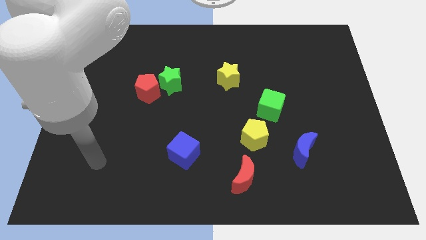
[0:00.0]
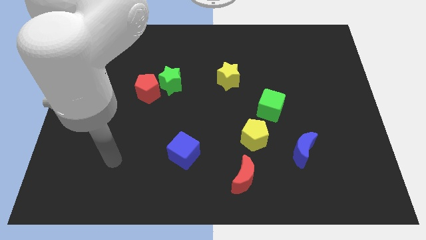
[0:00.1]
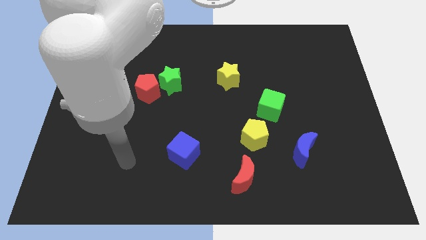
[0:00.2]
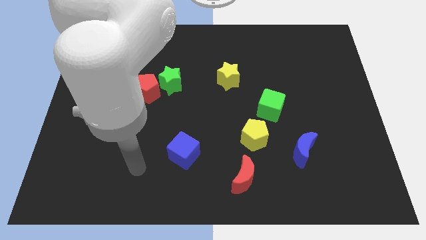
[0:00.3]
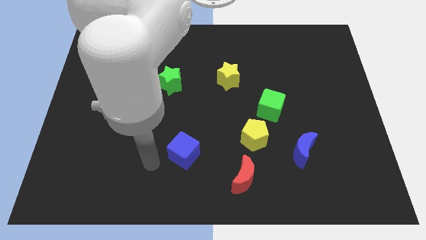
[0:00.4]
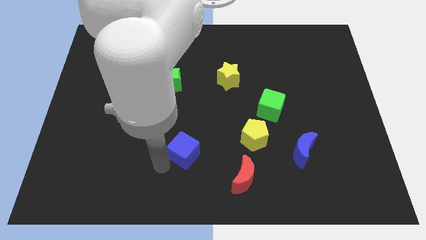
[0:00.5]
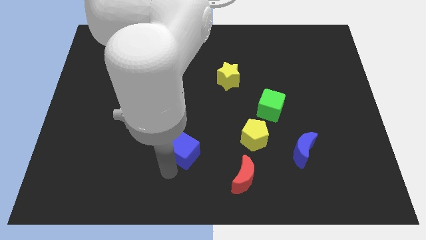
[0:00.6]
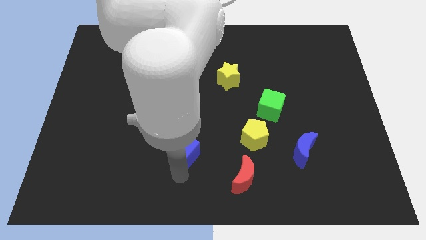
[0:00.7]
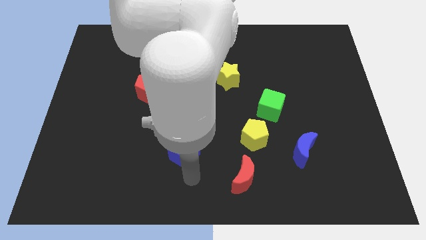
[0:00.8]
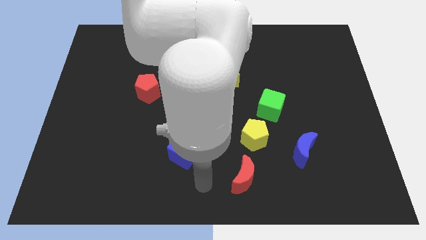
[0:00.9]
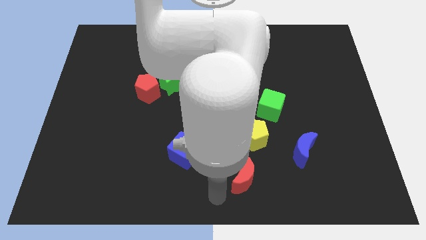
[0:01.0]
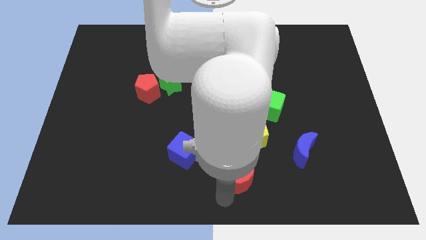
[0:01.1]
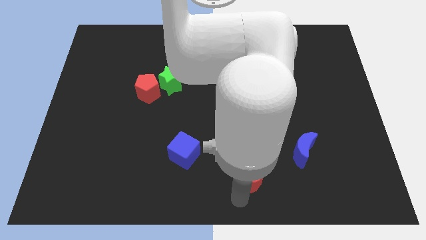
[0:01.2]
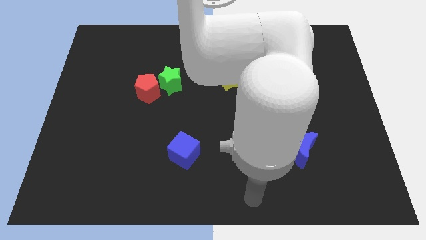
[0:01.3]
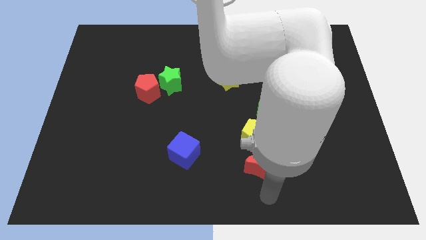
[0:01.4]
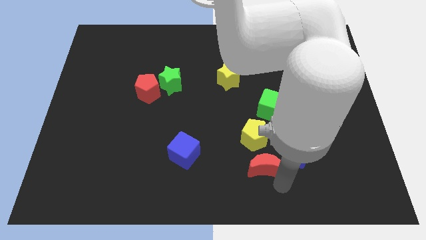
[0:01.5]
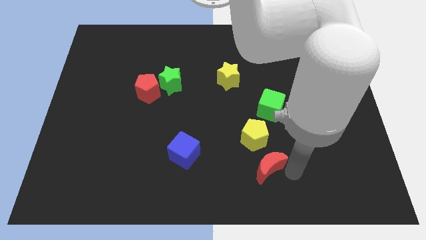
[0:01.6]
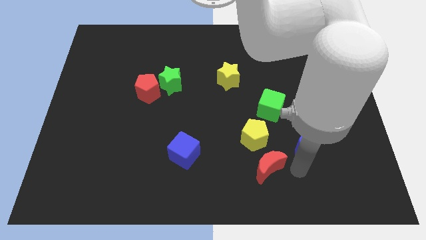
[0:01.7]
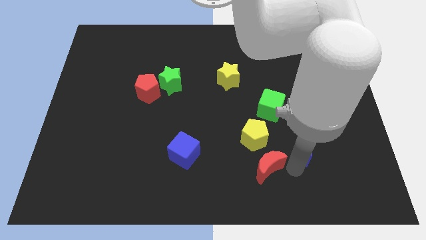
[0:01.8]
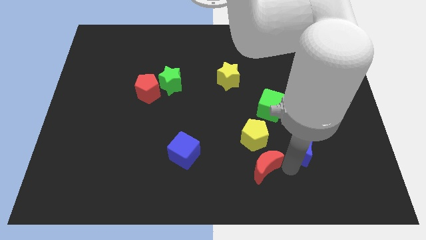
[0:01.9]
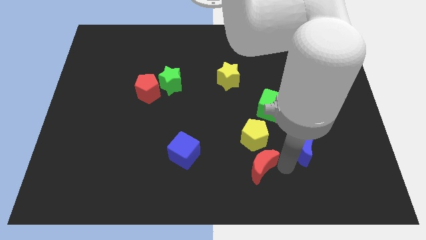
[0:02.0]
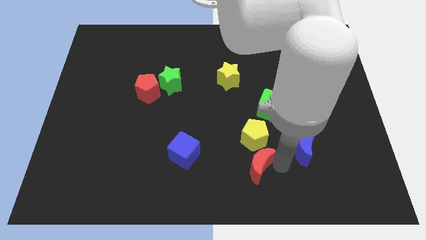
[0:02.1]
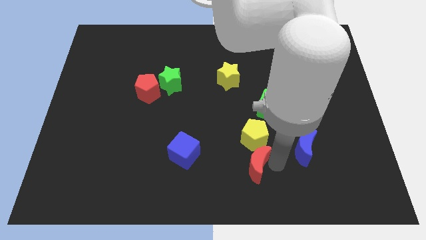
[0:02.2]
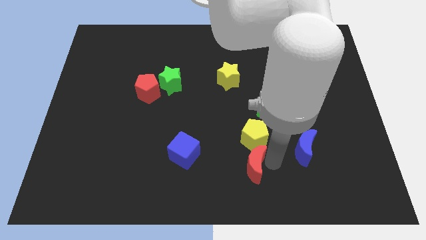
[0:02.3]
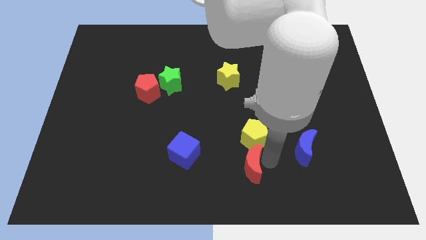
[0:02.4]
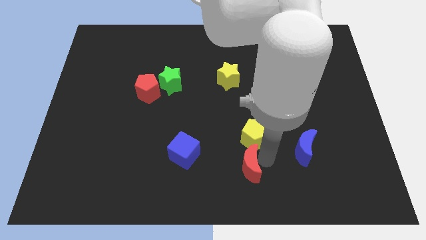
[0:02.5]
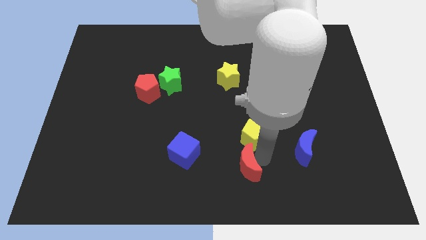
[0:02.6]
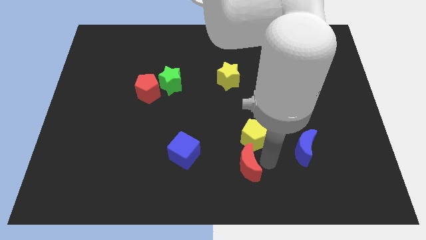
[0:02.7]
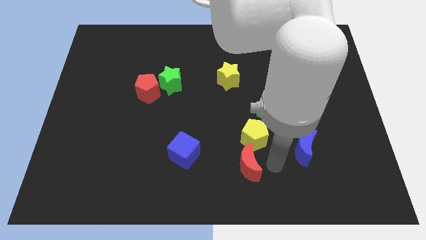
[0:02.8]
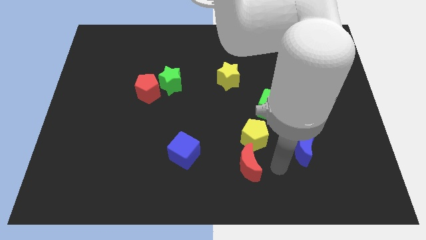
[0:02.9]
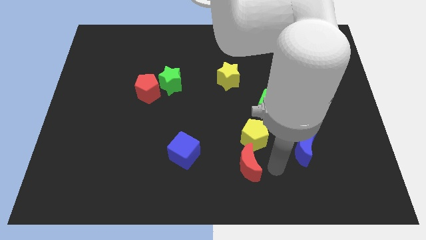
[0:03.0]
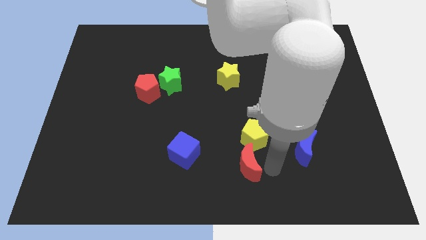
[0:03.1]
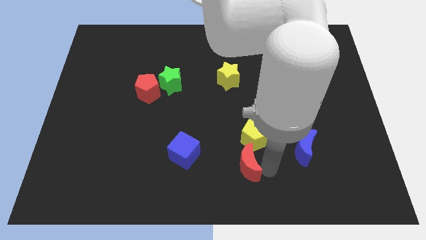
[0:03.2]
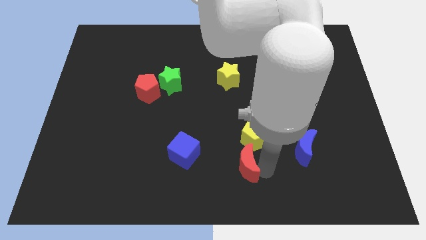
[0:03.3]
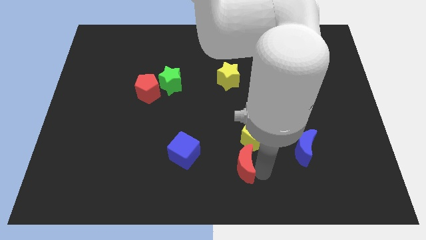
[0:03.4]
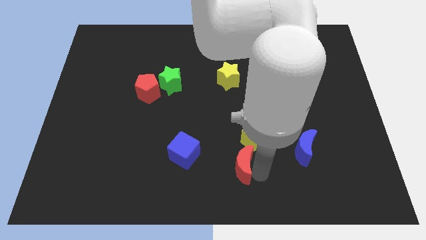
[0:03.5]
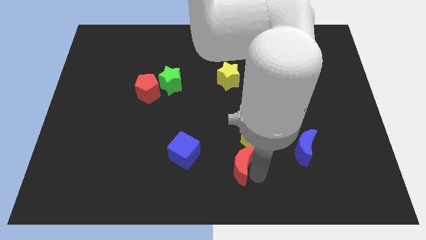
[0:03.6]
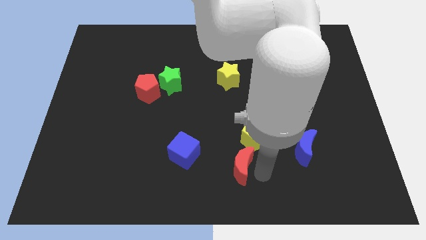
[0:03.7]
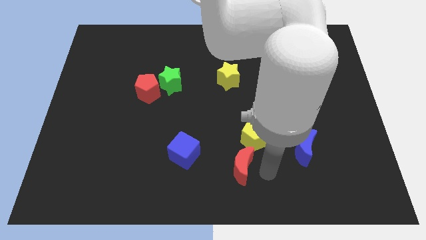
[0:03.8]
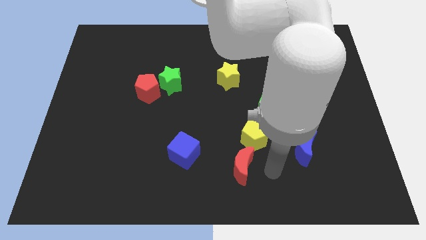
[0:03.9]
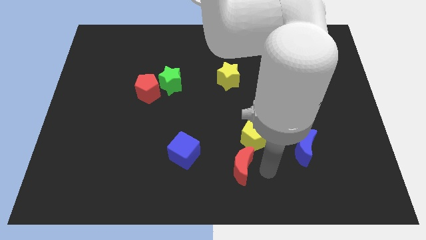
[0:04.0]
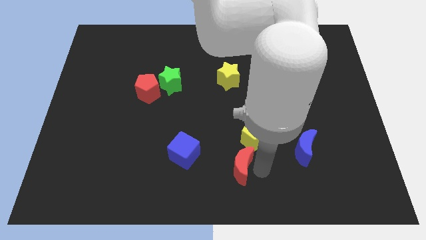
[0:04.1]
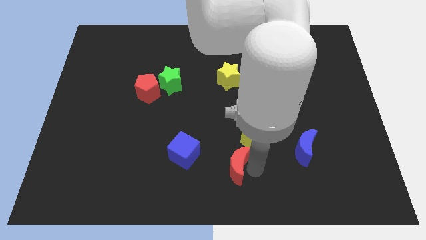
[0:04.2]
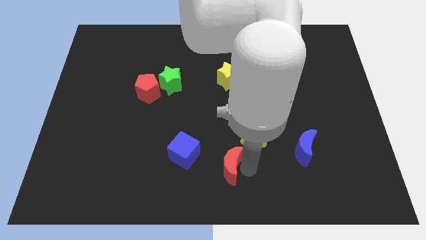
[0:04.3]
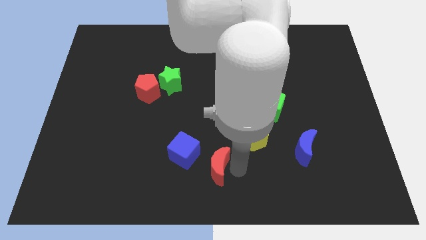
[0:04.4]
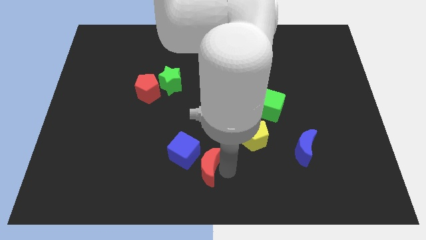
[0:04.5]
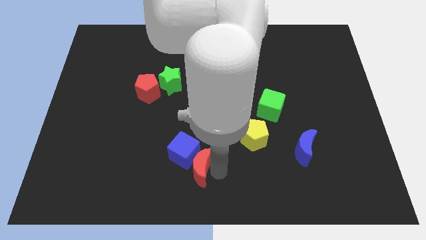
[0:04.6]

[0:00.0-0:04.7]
slide the red moon close to the blue cube

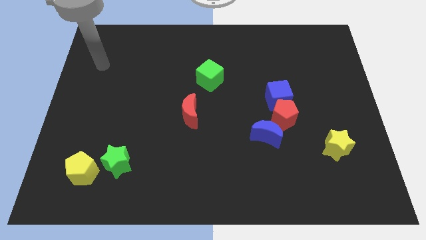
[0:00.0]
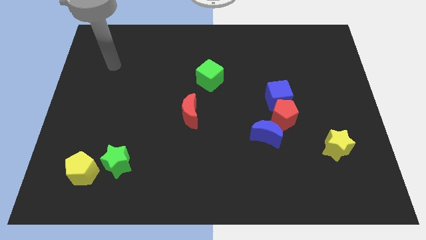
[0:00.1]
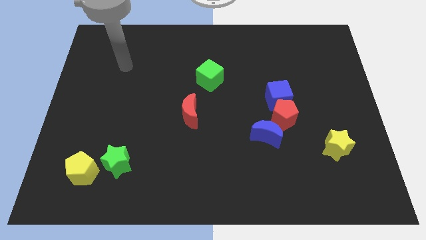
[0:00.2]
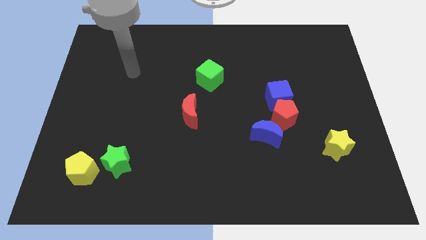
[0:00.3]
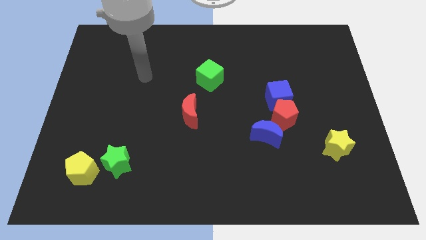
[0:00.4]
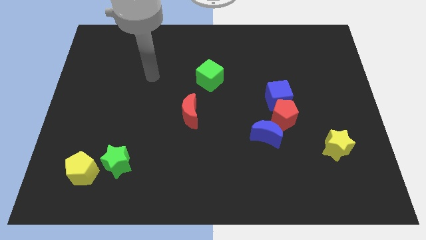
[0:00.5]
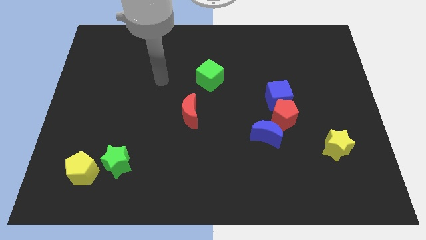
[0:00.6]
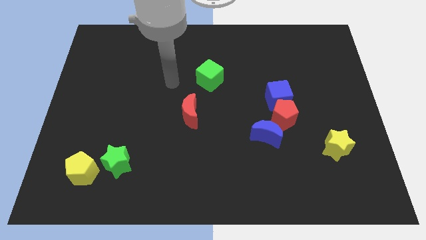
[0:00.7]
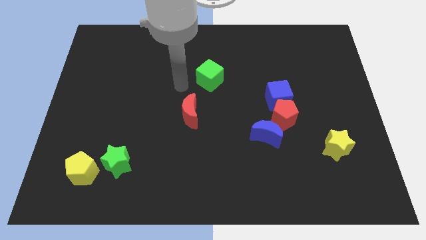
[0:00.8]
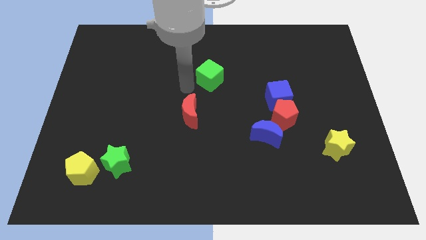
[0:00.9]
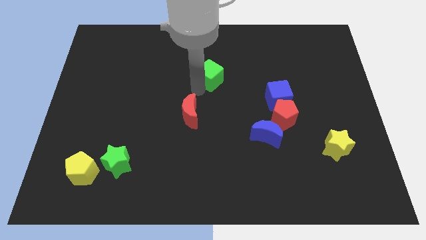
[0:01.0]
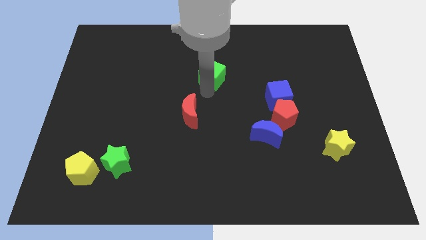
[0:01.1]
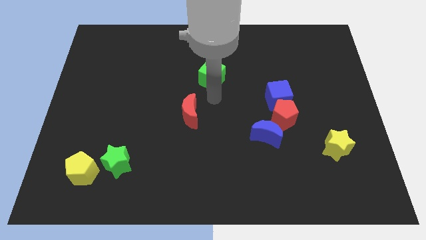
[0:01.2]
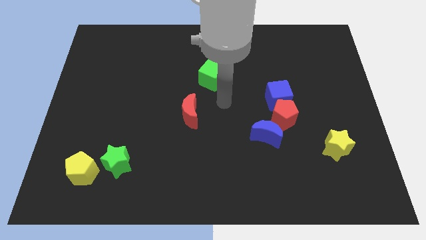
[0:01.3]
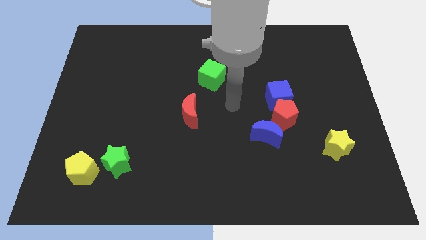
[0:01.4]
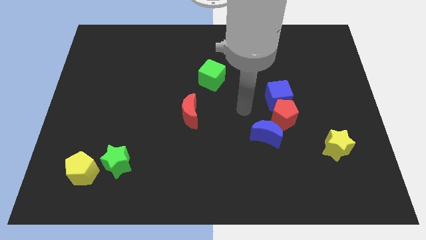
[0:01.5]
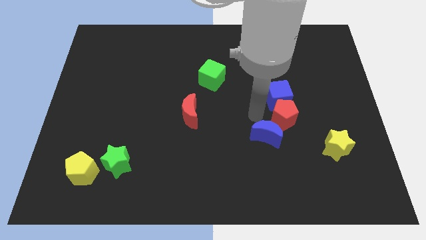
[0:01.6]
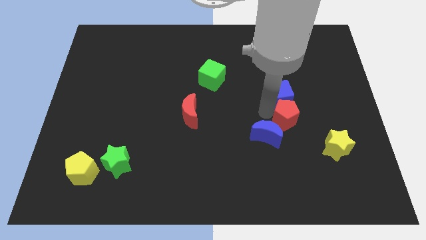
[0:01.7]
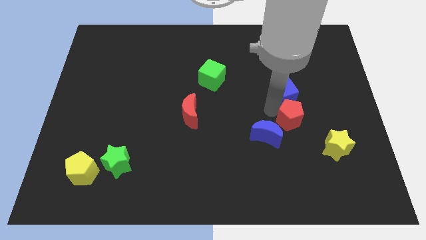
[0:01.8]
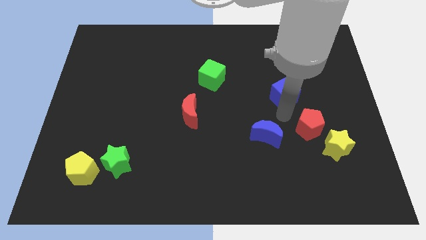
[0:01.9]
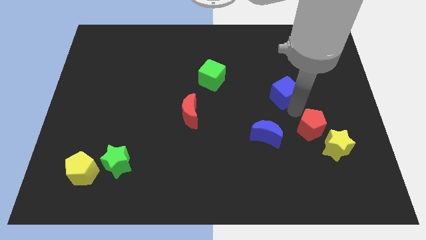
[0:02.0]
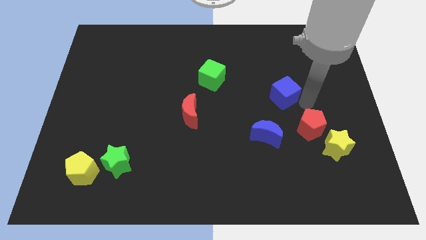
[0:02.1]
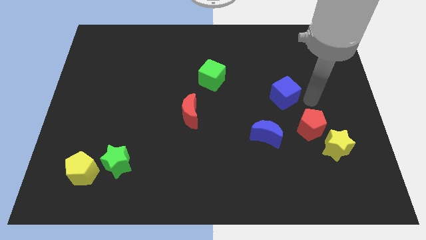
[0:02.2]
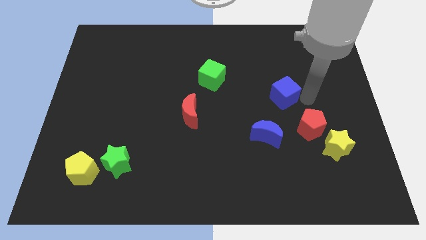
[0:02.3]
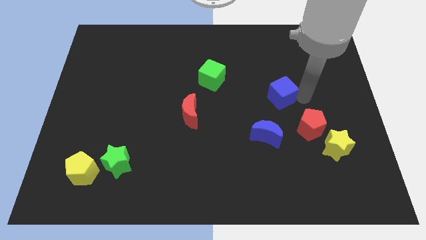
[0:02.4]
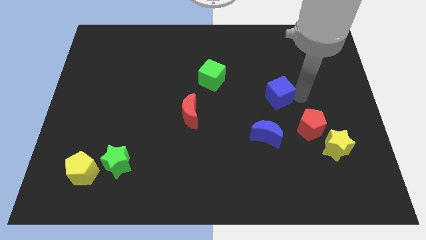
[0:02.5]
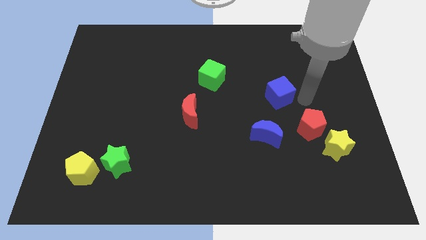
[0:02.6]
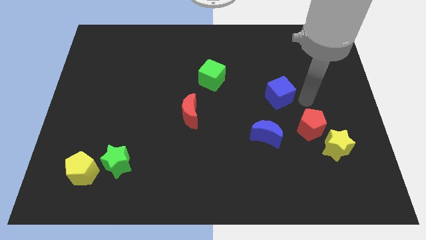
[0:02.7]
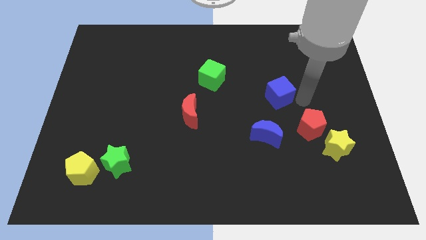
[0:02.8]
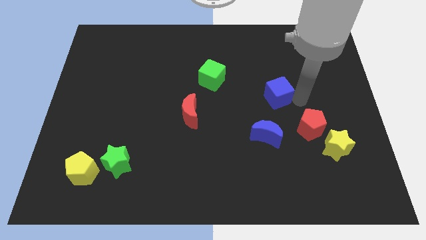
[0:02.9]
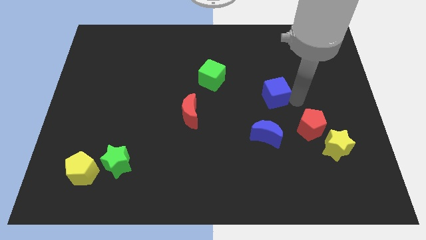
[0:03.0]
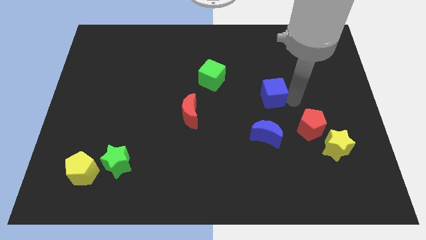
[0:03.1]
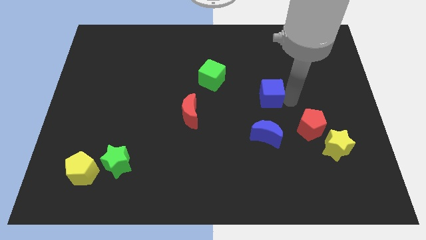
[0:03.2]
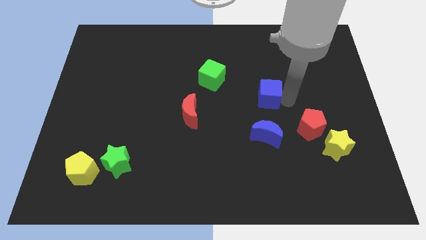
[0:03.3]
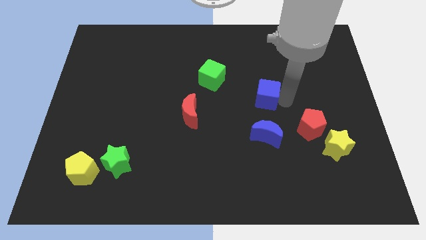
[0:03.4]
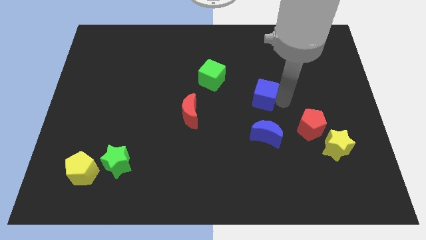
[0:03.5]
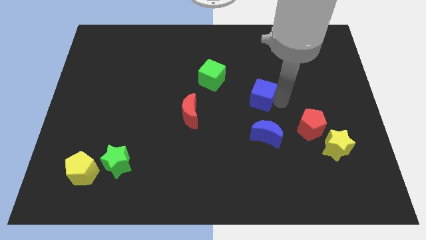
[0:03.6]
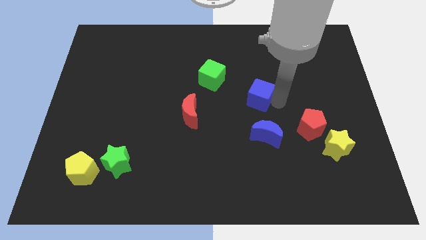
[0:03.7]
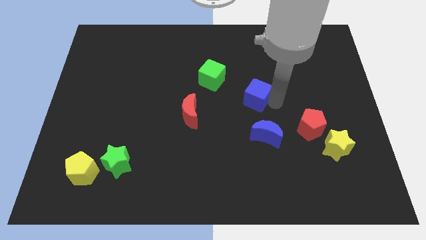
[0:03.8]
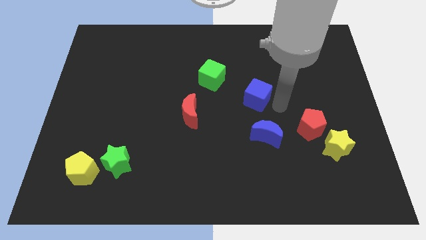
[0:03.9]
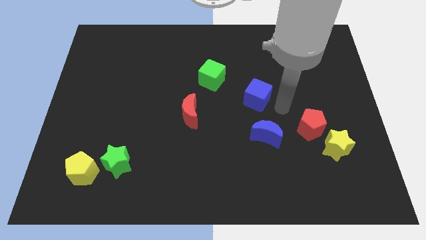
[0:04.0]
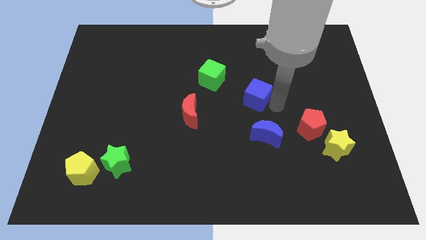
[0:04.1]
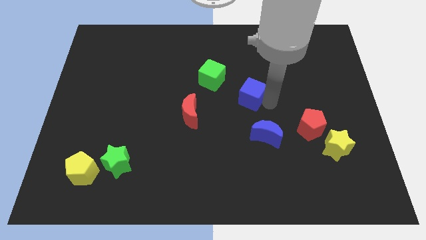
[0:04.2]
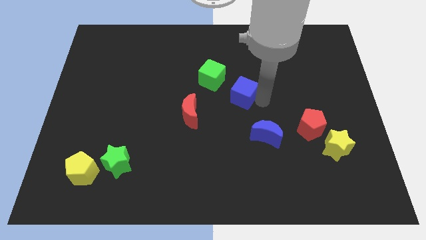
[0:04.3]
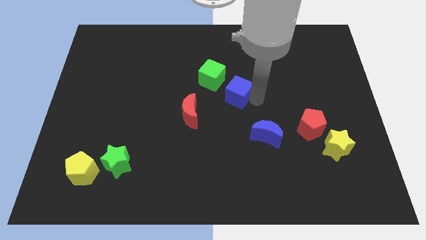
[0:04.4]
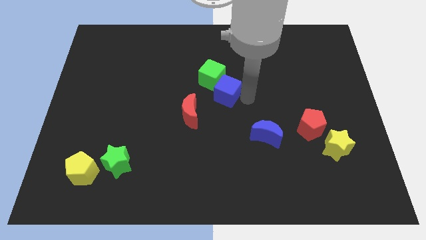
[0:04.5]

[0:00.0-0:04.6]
put the blue cube to the green cube
